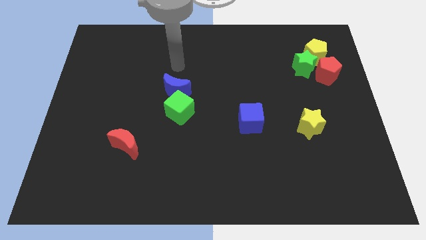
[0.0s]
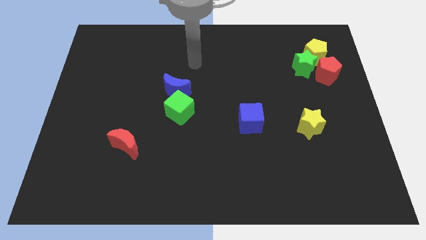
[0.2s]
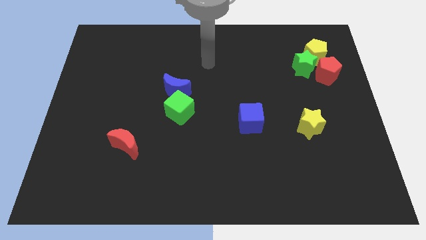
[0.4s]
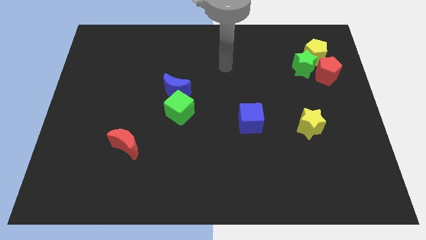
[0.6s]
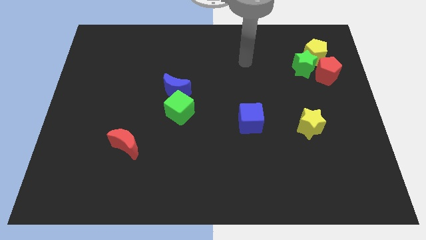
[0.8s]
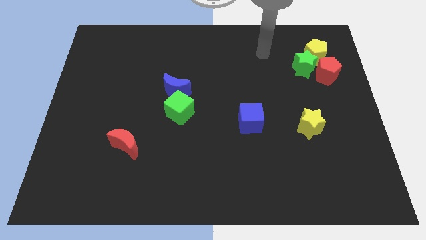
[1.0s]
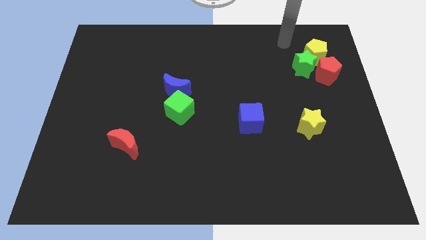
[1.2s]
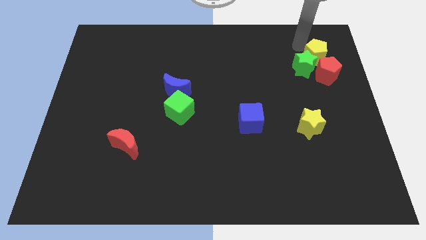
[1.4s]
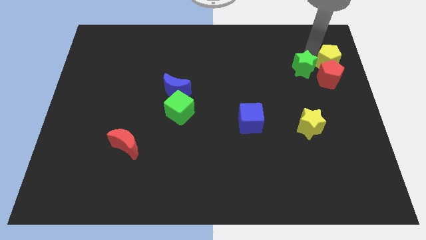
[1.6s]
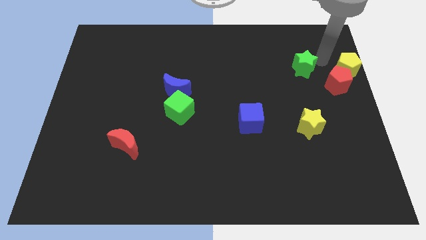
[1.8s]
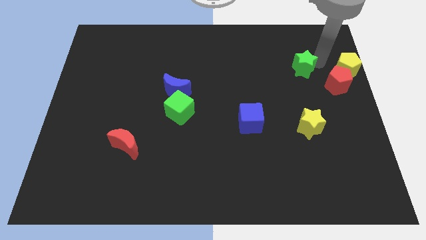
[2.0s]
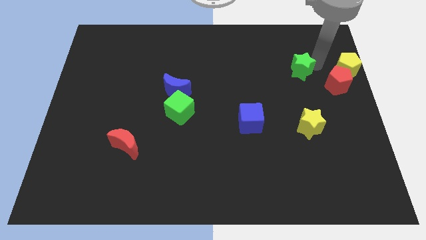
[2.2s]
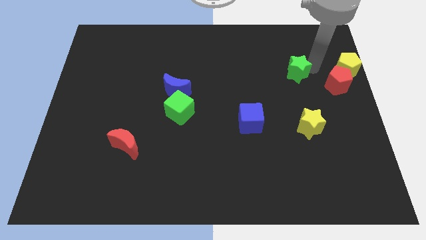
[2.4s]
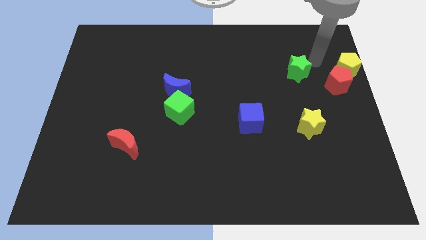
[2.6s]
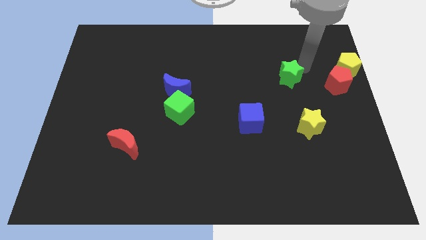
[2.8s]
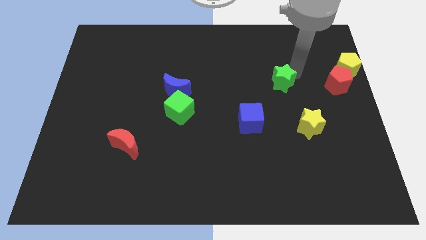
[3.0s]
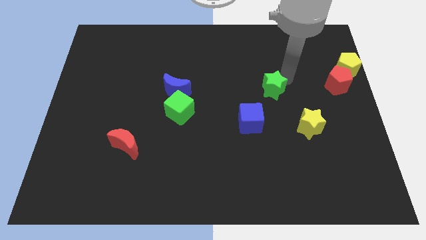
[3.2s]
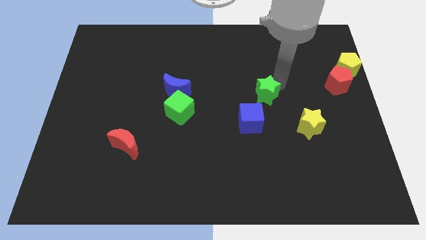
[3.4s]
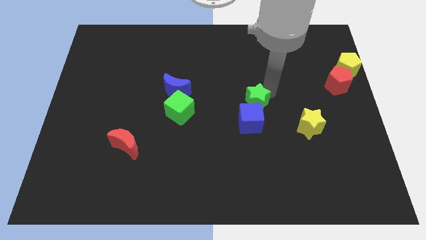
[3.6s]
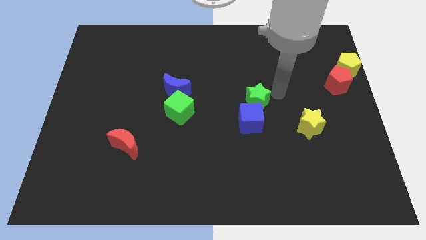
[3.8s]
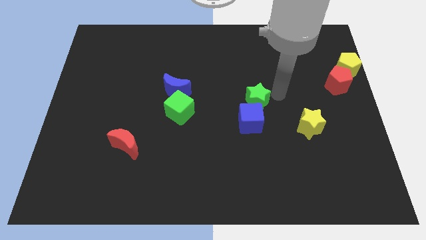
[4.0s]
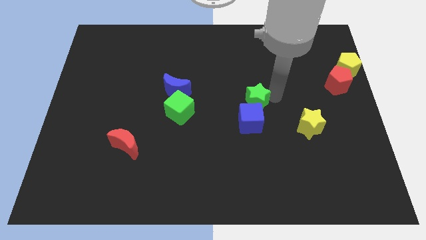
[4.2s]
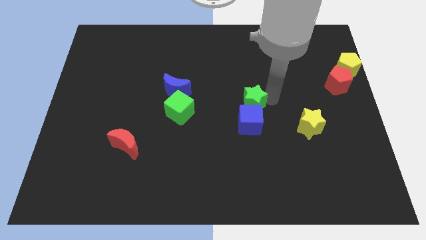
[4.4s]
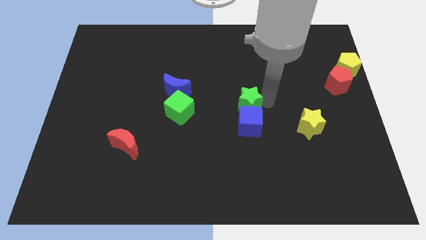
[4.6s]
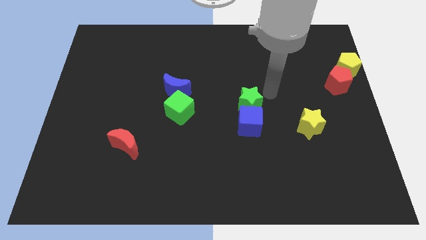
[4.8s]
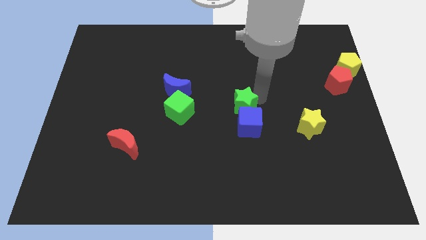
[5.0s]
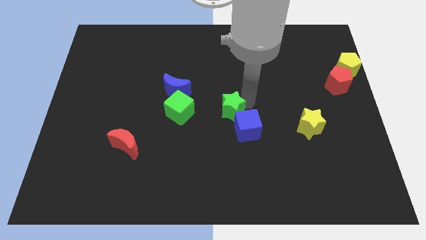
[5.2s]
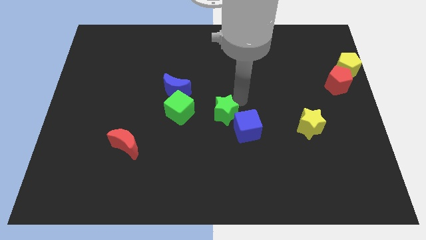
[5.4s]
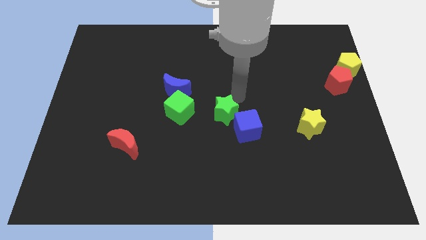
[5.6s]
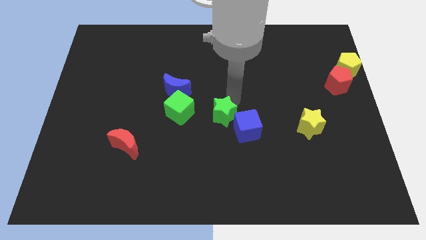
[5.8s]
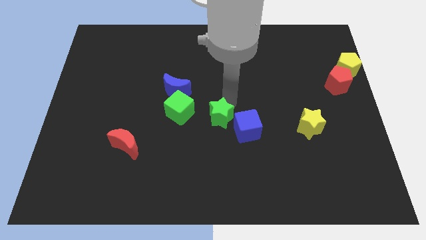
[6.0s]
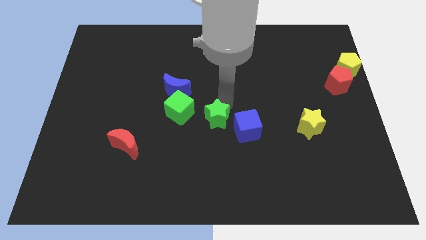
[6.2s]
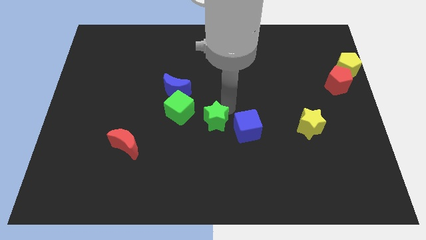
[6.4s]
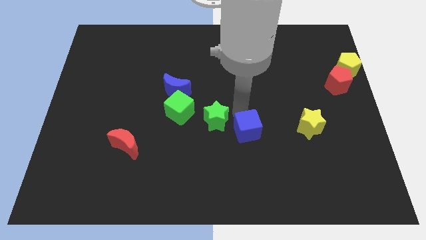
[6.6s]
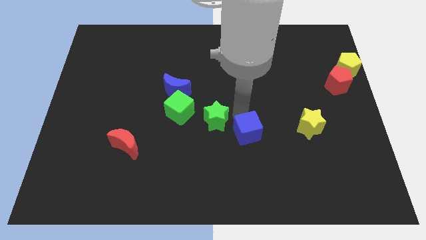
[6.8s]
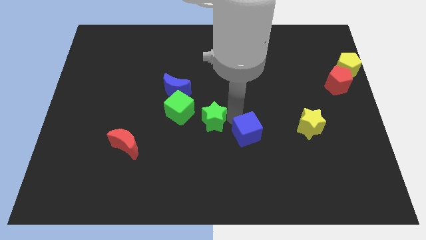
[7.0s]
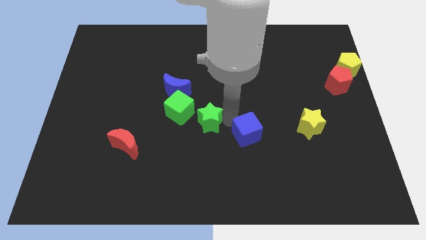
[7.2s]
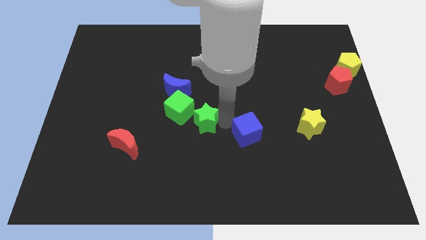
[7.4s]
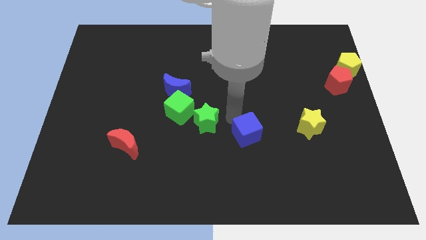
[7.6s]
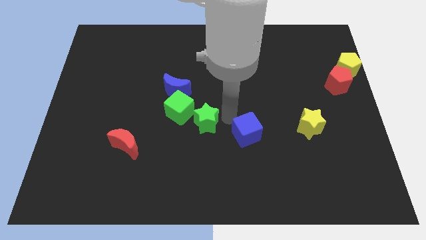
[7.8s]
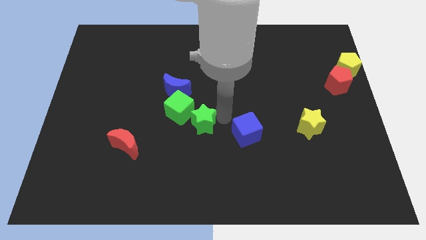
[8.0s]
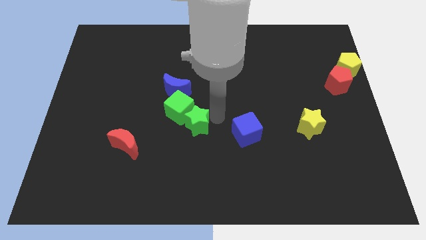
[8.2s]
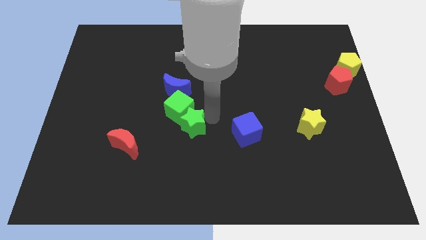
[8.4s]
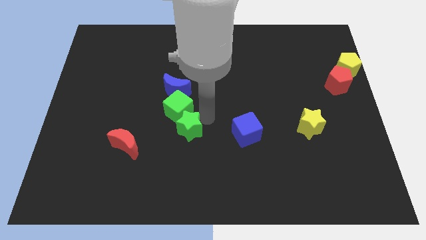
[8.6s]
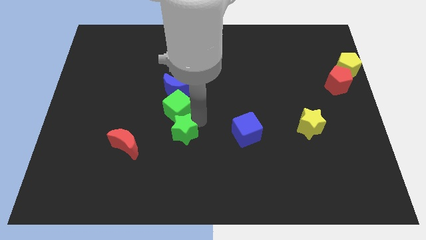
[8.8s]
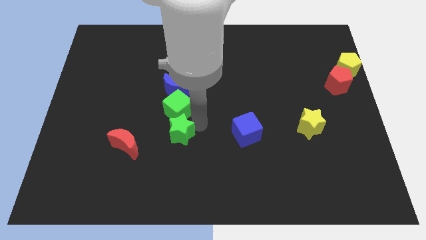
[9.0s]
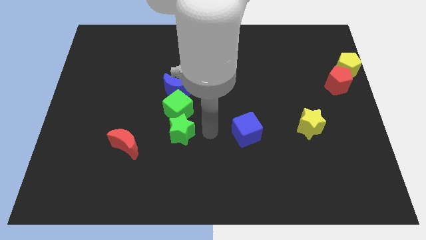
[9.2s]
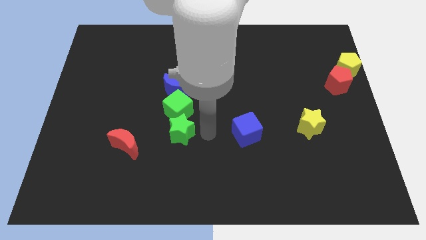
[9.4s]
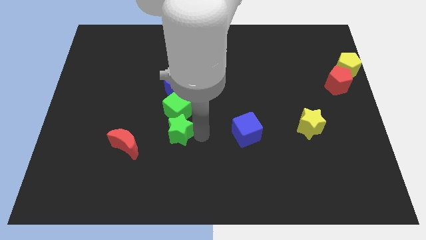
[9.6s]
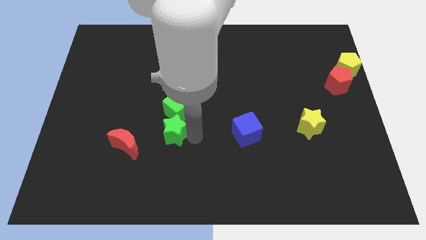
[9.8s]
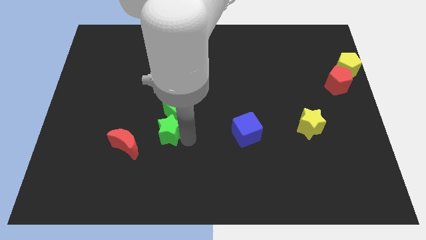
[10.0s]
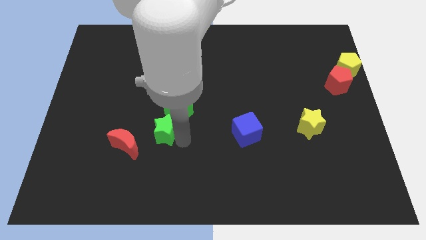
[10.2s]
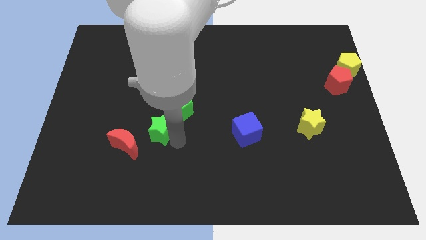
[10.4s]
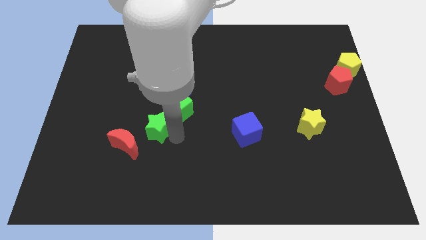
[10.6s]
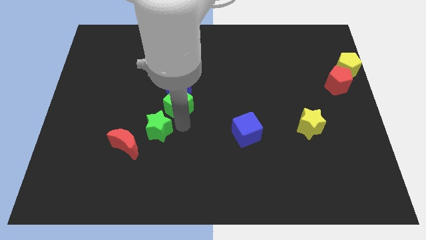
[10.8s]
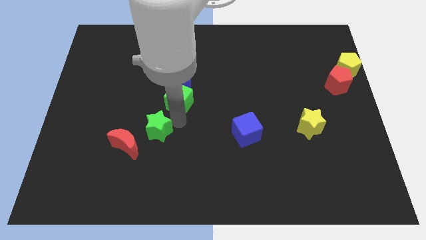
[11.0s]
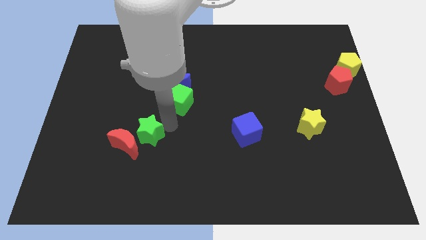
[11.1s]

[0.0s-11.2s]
slide the green star next to the red moon

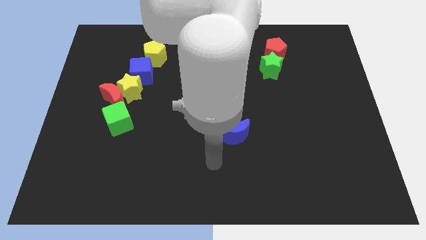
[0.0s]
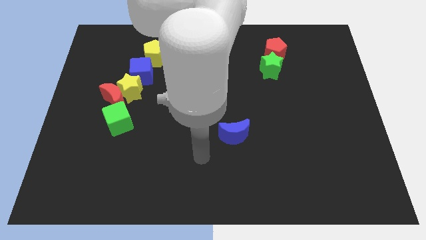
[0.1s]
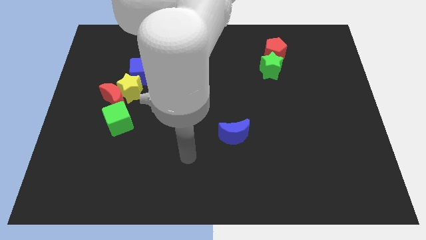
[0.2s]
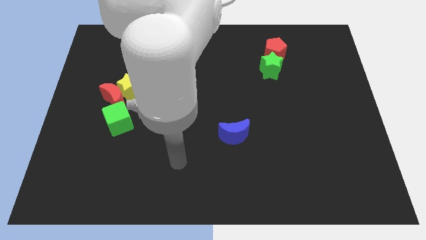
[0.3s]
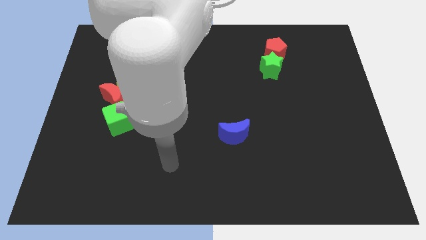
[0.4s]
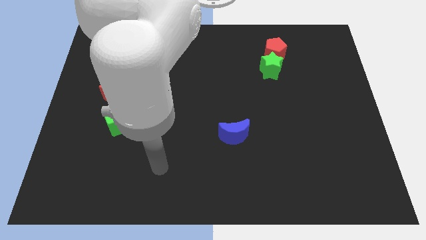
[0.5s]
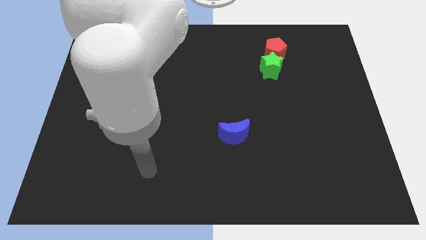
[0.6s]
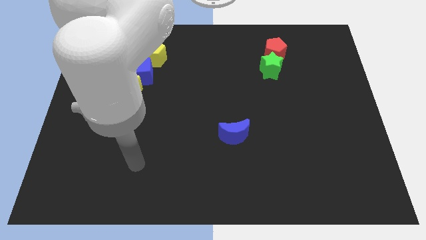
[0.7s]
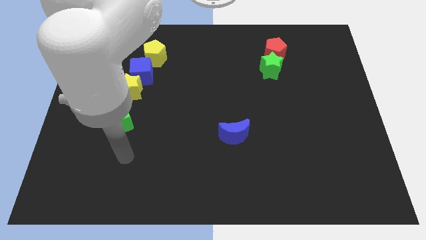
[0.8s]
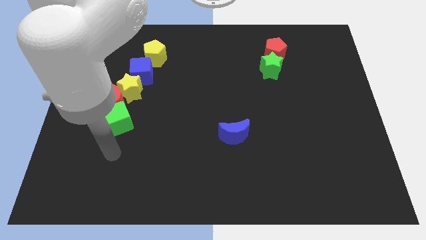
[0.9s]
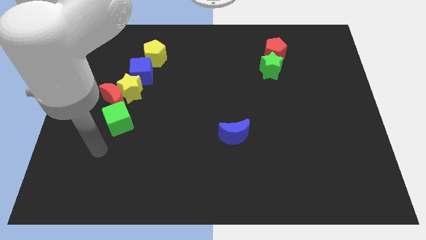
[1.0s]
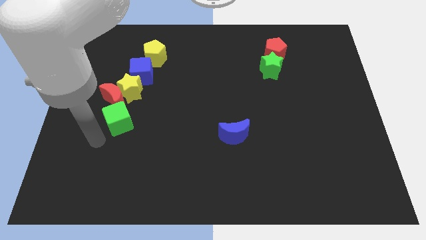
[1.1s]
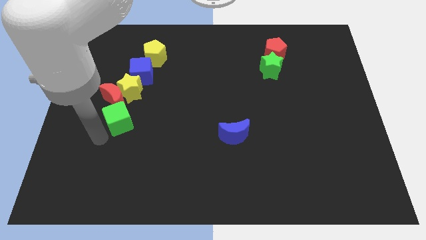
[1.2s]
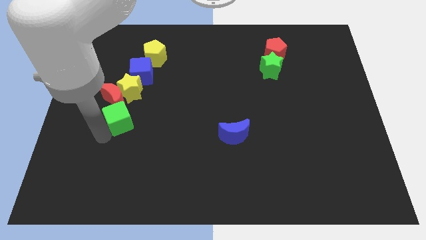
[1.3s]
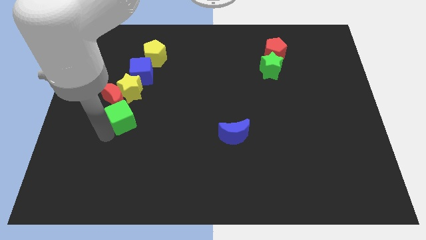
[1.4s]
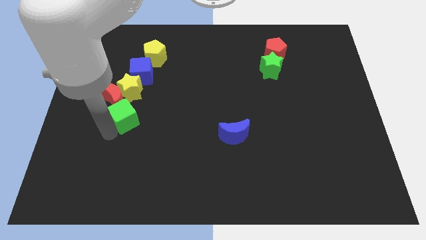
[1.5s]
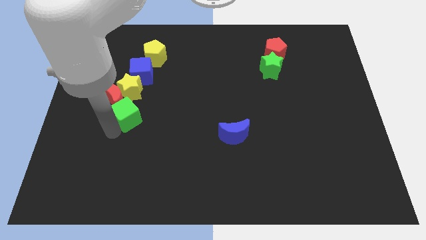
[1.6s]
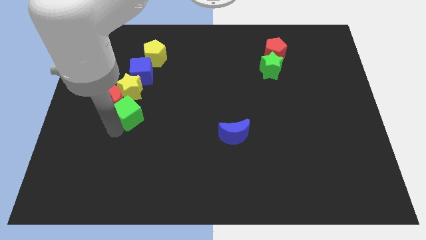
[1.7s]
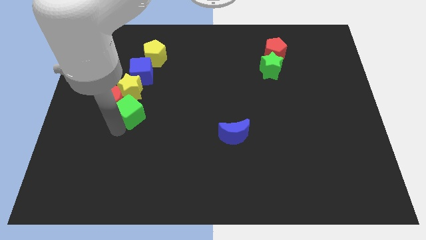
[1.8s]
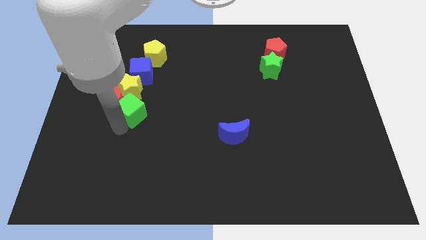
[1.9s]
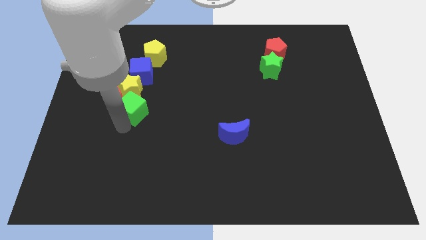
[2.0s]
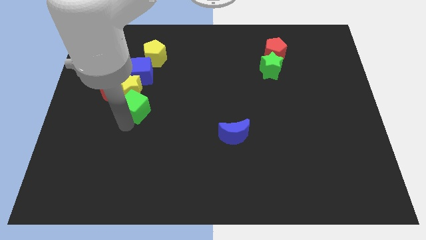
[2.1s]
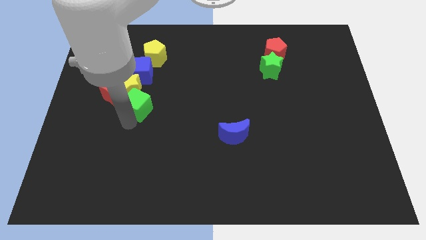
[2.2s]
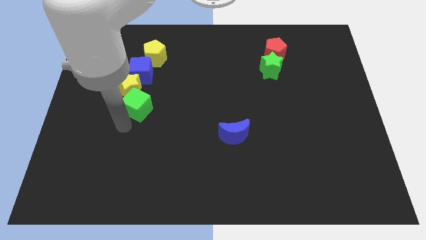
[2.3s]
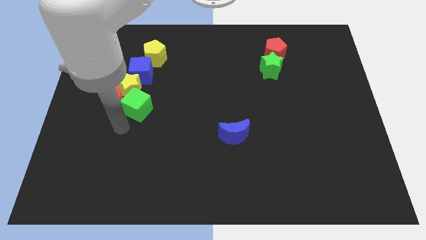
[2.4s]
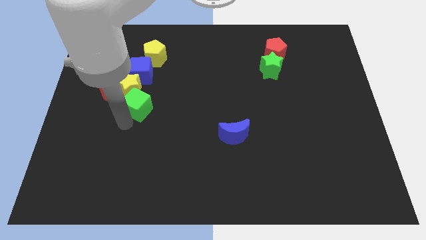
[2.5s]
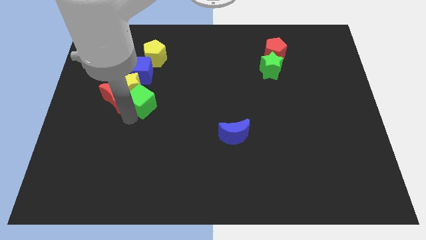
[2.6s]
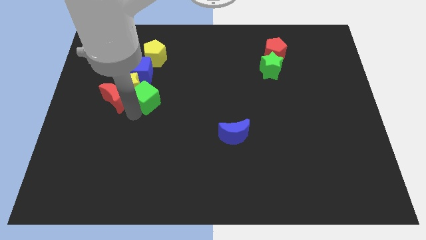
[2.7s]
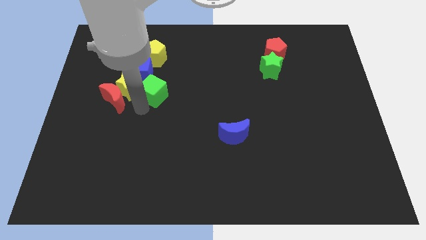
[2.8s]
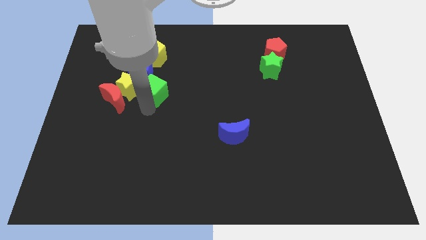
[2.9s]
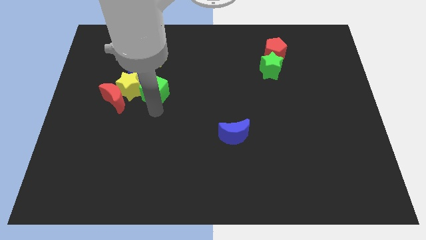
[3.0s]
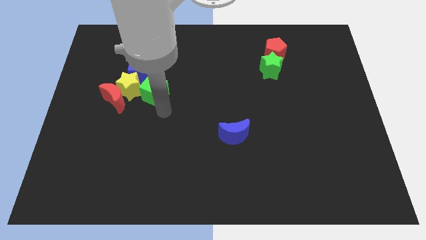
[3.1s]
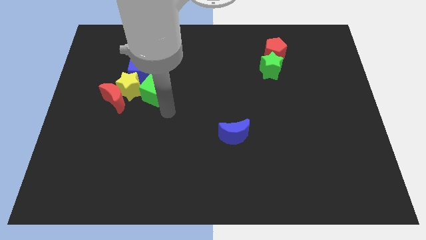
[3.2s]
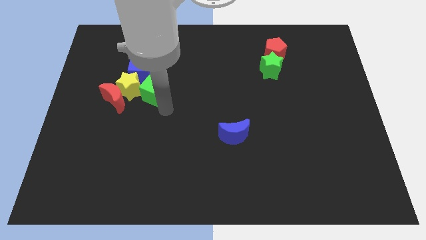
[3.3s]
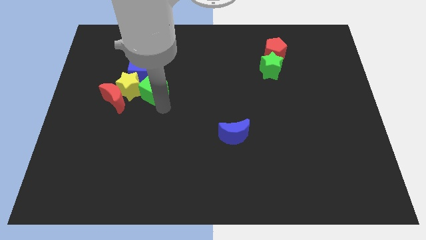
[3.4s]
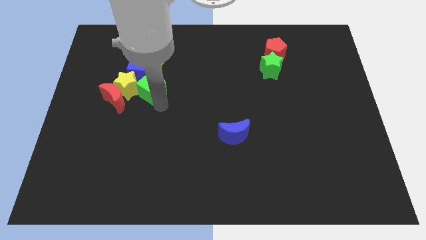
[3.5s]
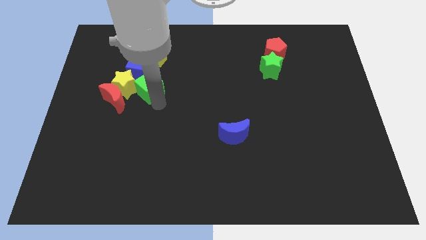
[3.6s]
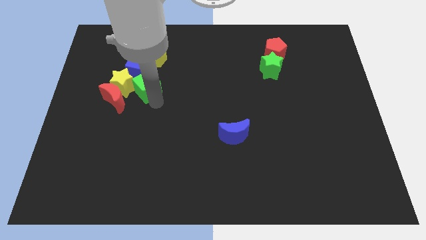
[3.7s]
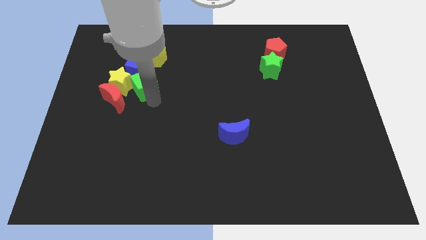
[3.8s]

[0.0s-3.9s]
put the green cube to the blue cube
